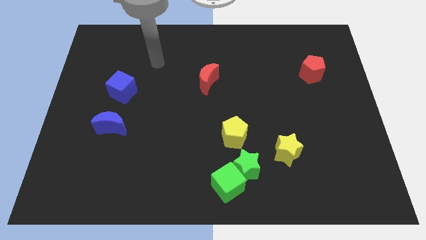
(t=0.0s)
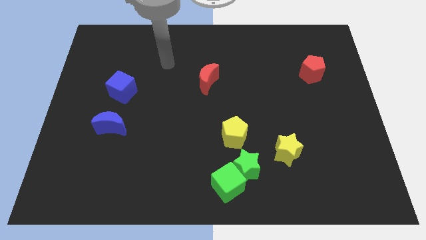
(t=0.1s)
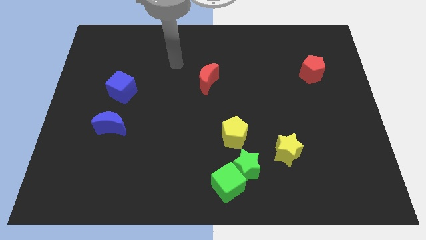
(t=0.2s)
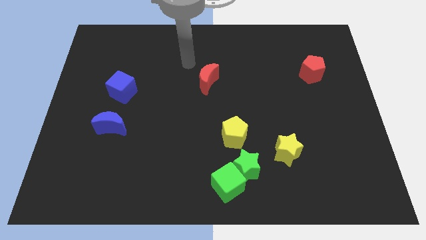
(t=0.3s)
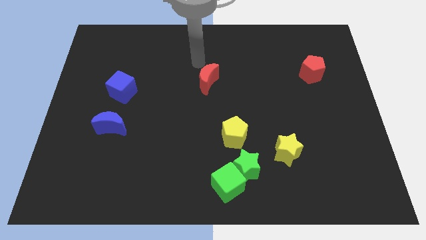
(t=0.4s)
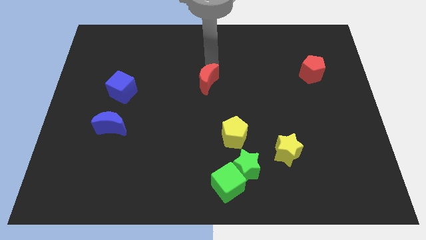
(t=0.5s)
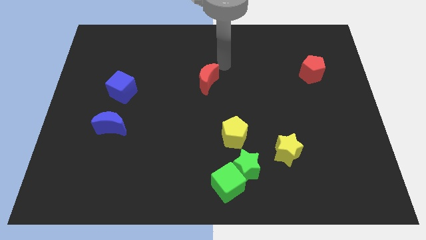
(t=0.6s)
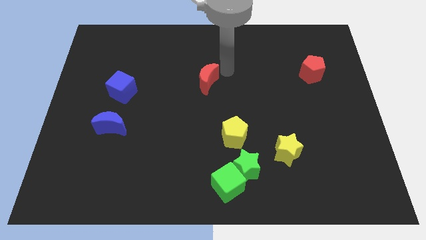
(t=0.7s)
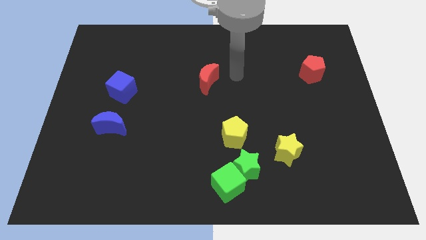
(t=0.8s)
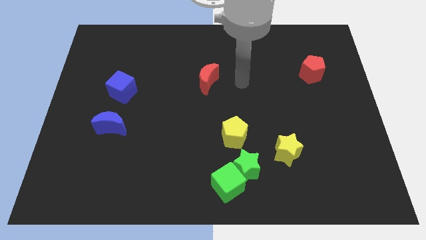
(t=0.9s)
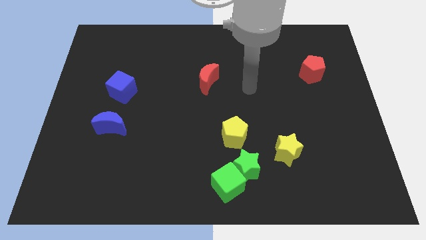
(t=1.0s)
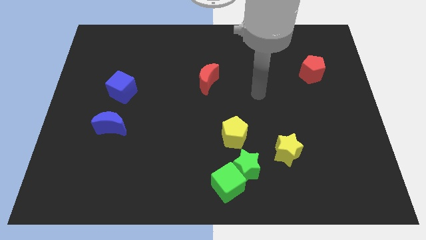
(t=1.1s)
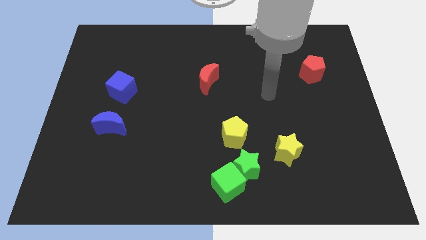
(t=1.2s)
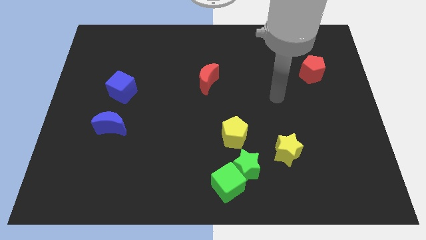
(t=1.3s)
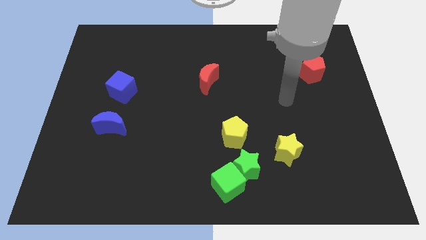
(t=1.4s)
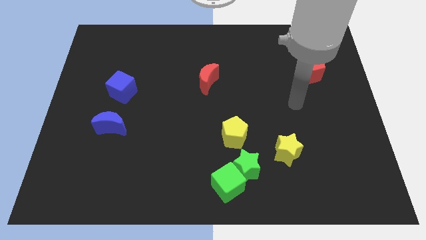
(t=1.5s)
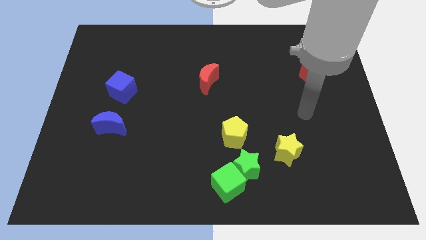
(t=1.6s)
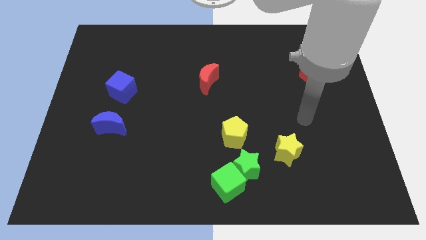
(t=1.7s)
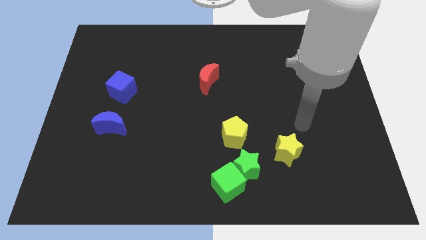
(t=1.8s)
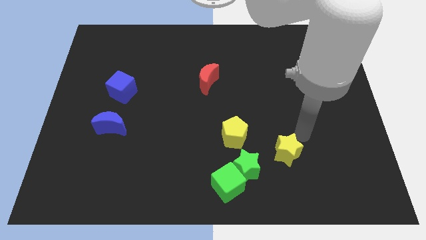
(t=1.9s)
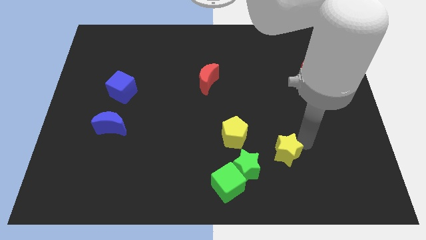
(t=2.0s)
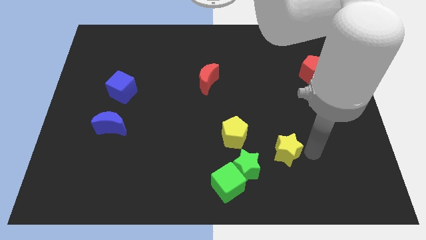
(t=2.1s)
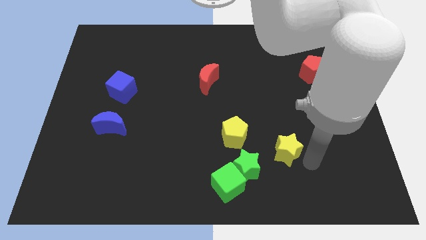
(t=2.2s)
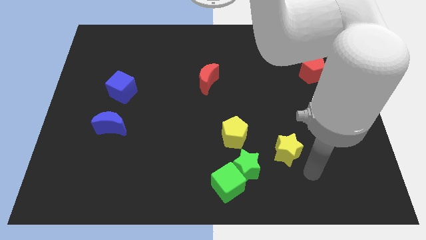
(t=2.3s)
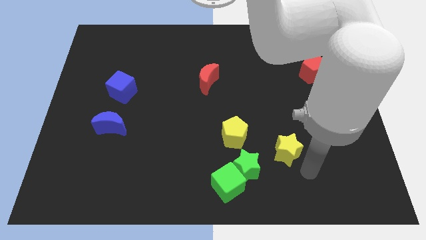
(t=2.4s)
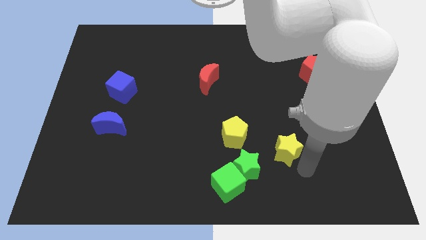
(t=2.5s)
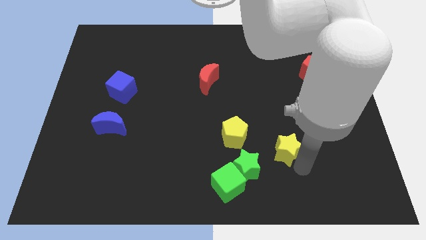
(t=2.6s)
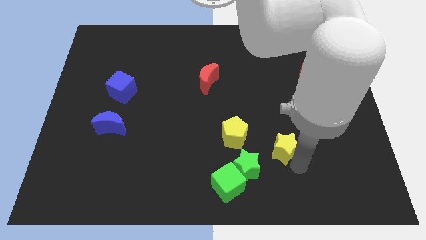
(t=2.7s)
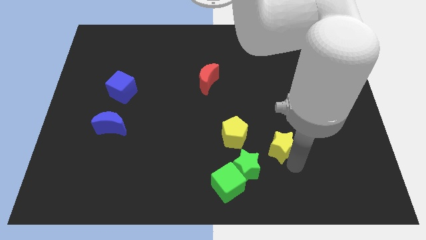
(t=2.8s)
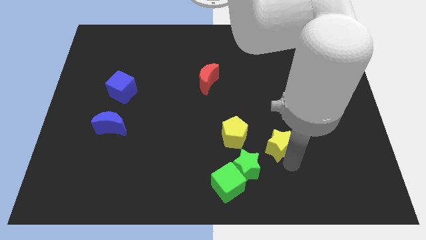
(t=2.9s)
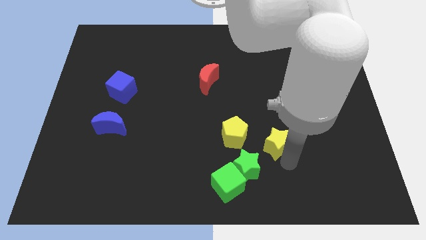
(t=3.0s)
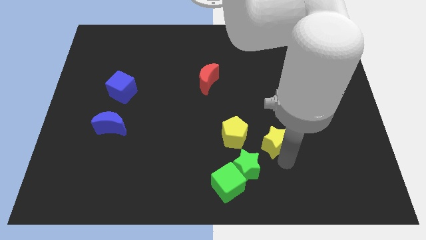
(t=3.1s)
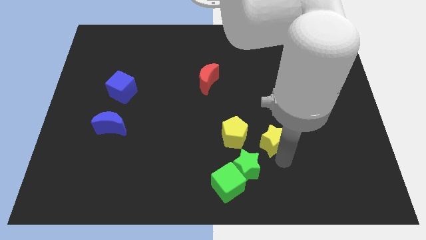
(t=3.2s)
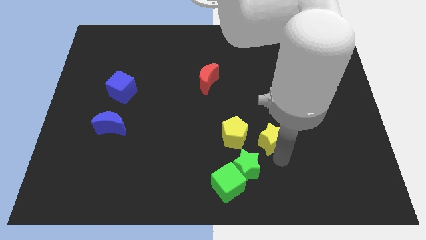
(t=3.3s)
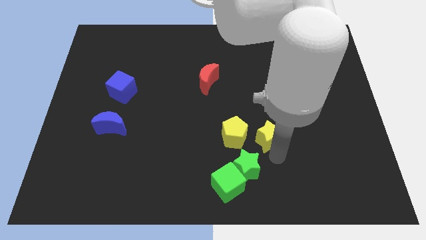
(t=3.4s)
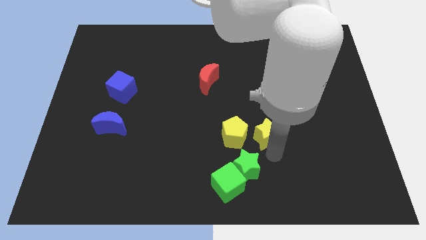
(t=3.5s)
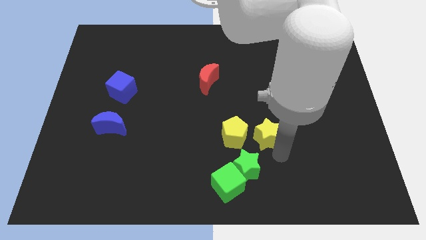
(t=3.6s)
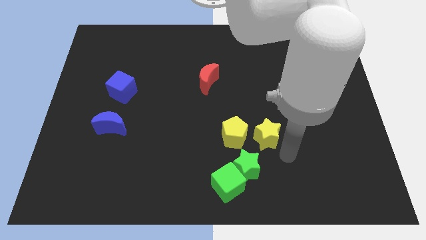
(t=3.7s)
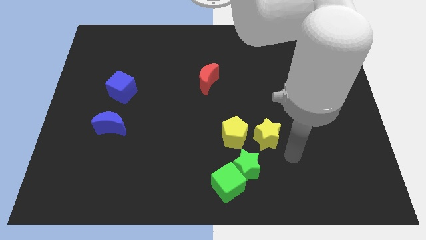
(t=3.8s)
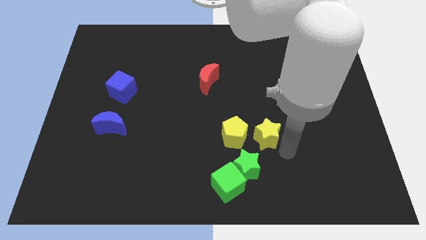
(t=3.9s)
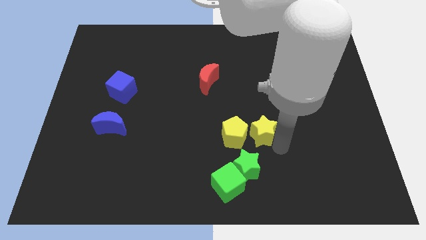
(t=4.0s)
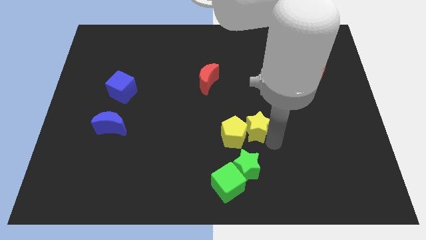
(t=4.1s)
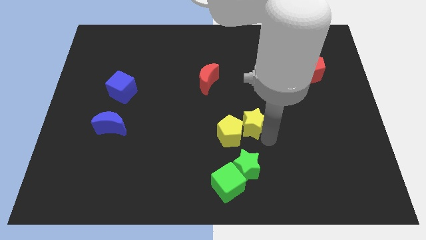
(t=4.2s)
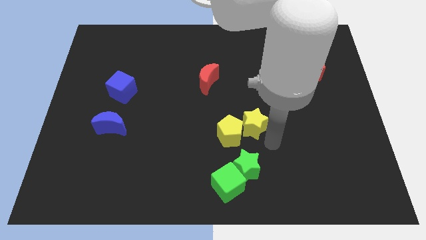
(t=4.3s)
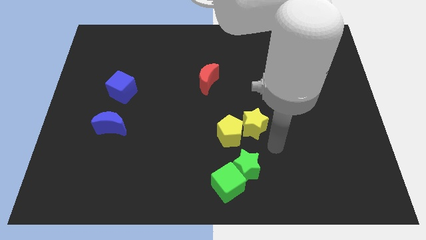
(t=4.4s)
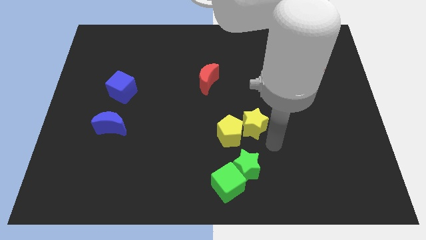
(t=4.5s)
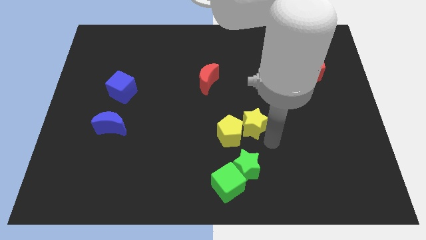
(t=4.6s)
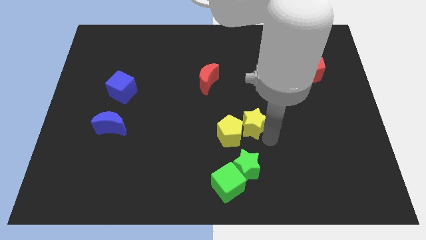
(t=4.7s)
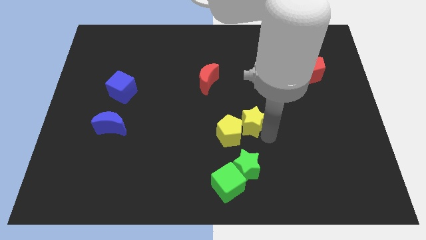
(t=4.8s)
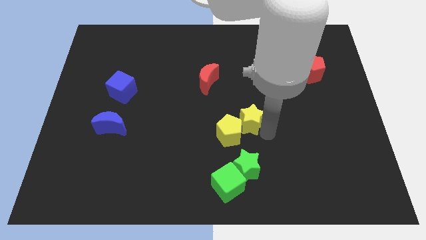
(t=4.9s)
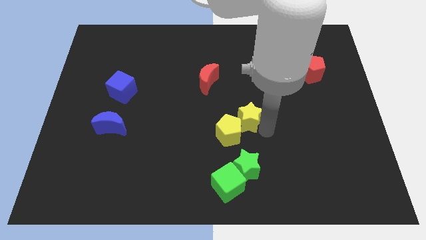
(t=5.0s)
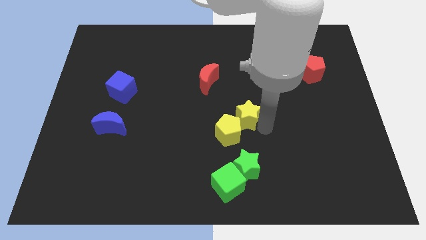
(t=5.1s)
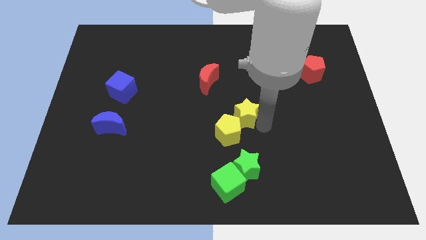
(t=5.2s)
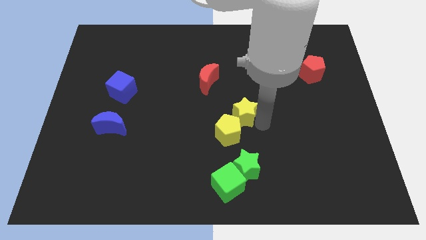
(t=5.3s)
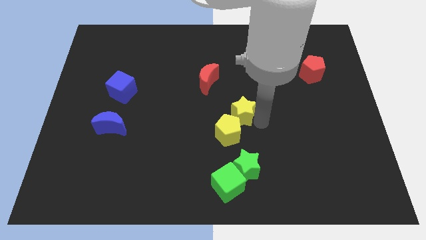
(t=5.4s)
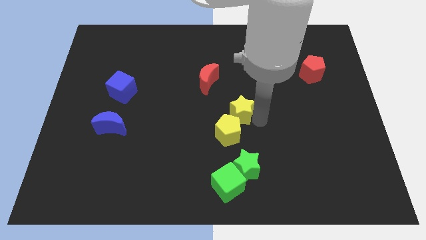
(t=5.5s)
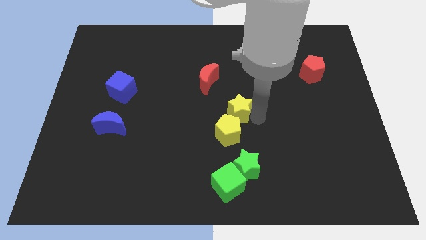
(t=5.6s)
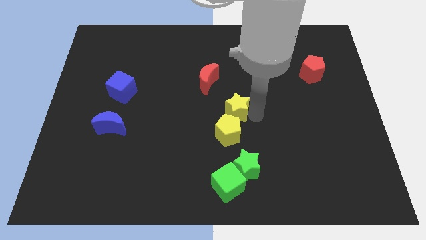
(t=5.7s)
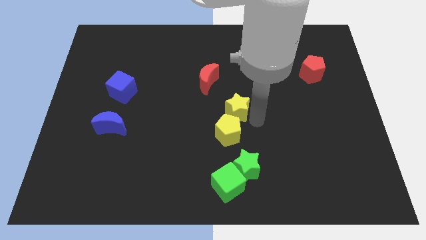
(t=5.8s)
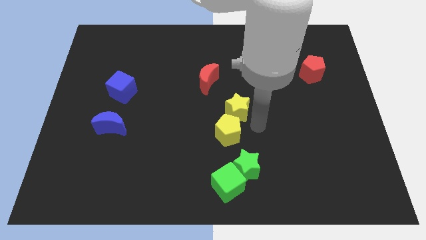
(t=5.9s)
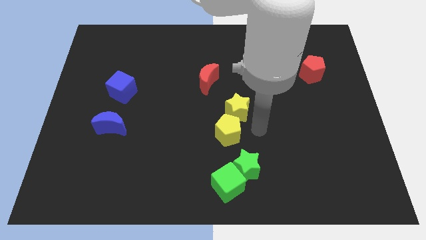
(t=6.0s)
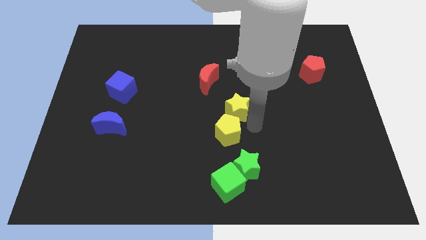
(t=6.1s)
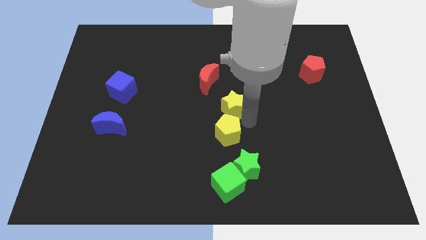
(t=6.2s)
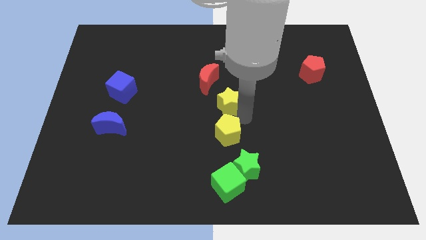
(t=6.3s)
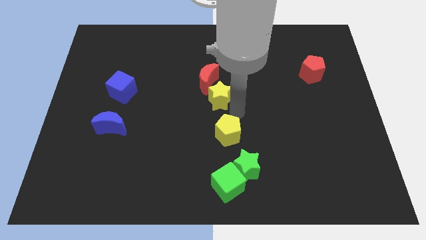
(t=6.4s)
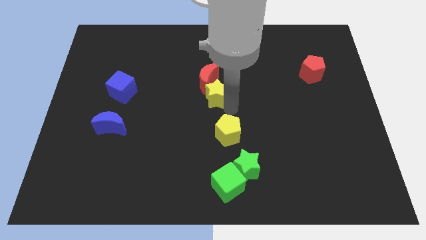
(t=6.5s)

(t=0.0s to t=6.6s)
put the yellow star towards the red moon
